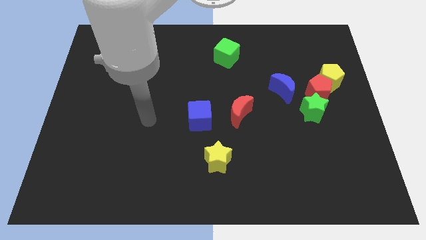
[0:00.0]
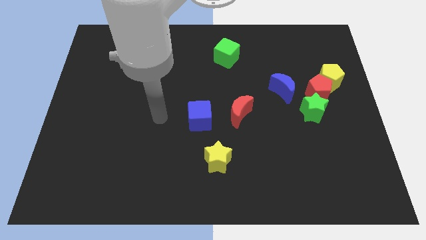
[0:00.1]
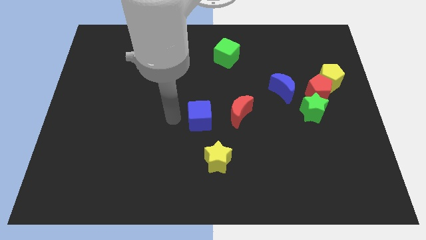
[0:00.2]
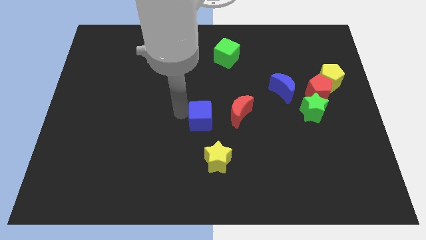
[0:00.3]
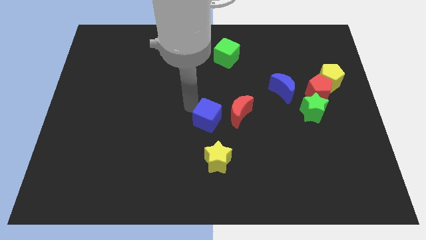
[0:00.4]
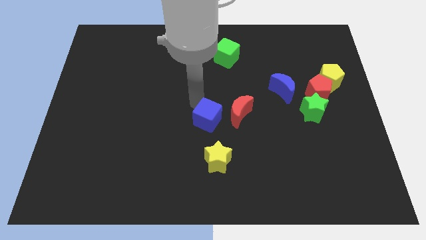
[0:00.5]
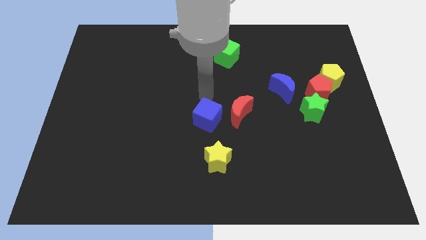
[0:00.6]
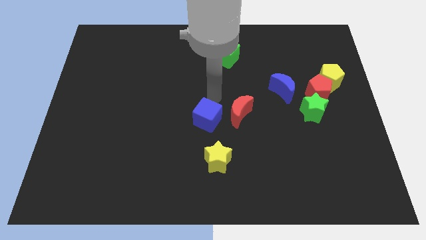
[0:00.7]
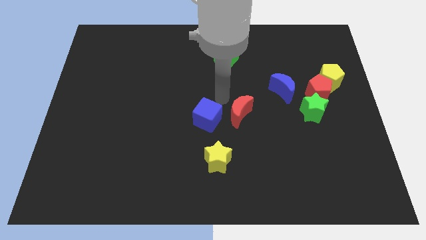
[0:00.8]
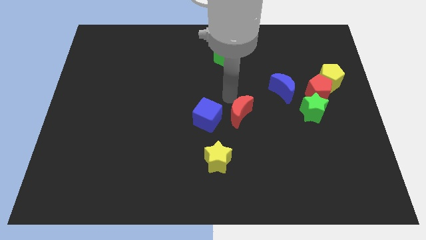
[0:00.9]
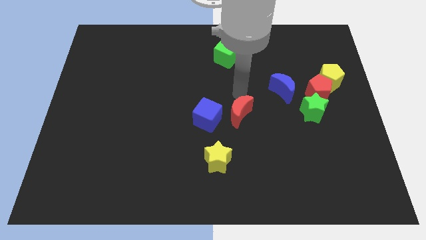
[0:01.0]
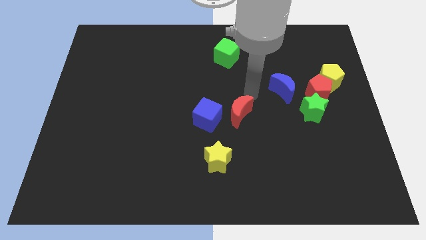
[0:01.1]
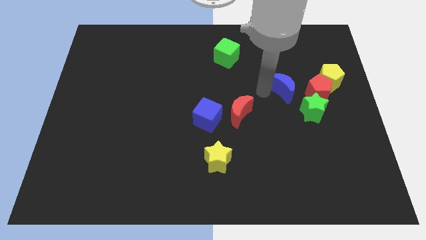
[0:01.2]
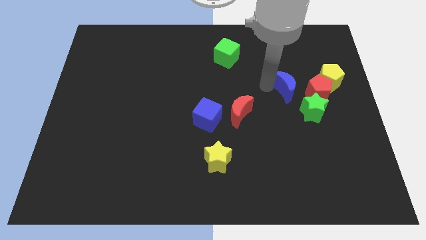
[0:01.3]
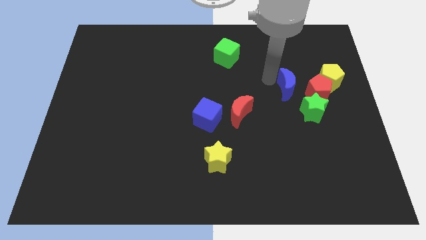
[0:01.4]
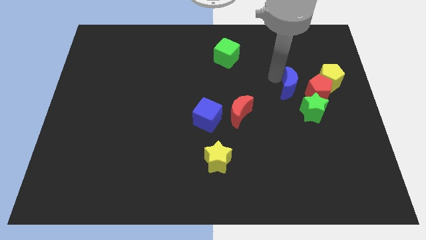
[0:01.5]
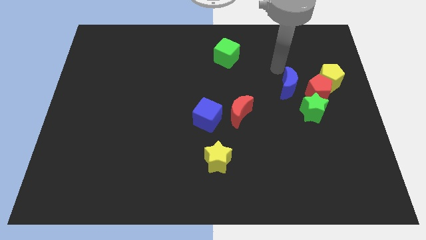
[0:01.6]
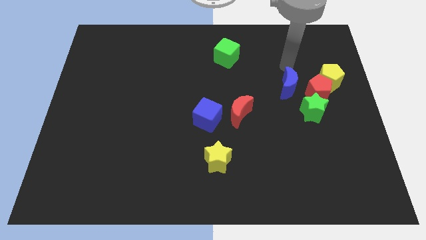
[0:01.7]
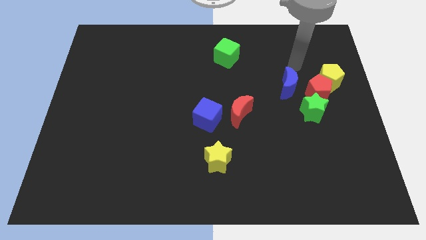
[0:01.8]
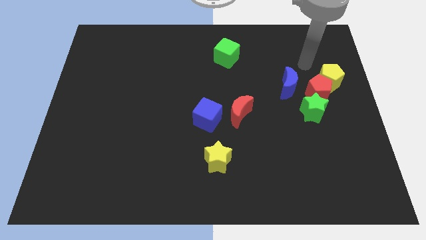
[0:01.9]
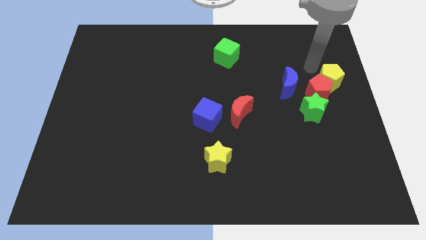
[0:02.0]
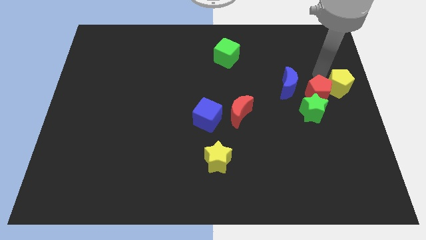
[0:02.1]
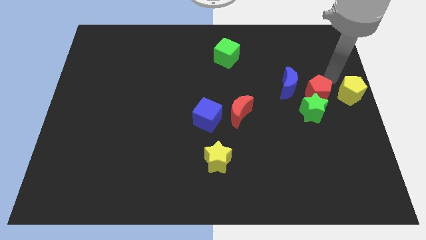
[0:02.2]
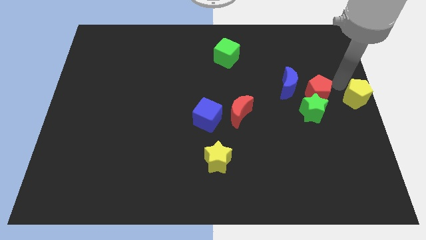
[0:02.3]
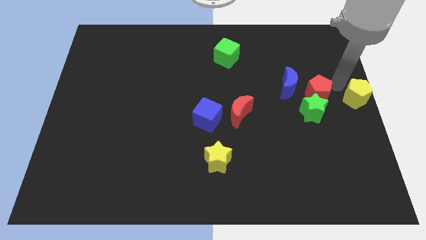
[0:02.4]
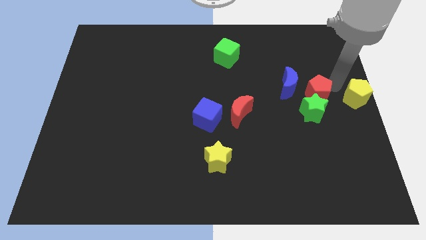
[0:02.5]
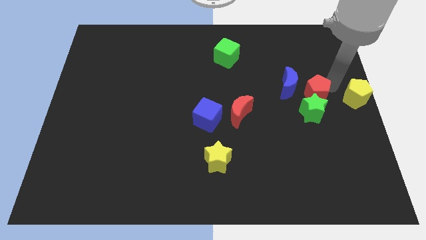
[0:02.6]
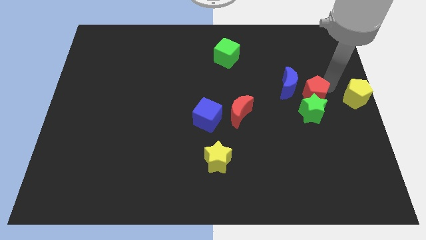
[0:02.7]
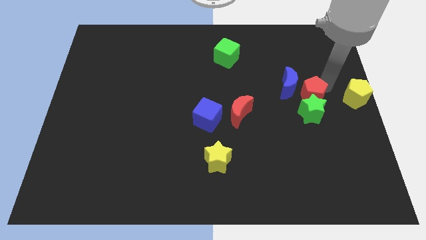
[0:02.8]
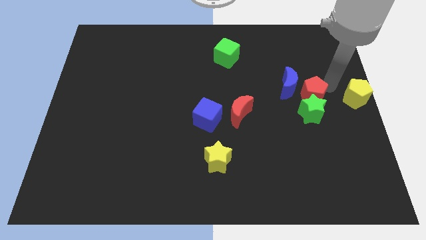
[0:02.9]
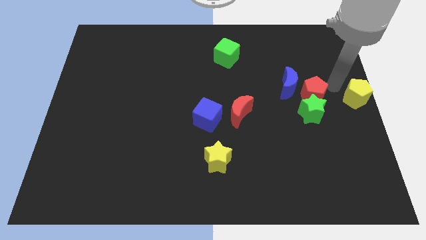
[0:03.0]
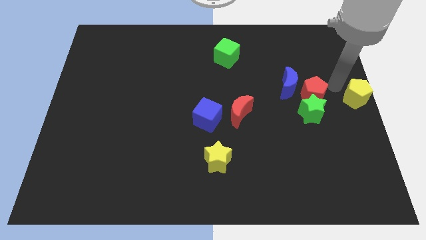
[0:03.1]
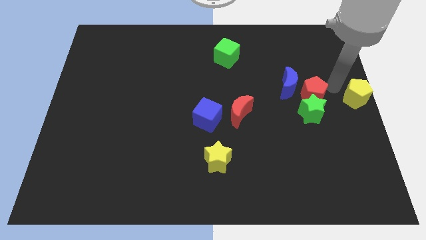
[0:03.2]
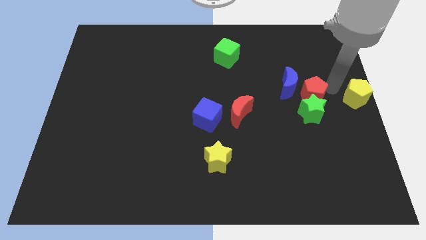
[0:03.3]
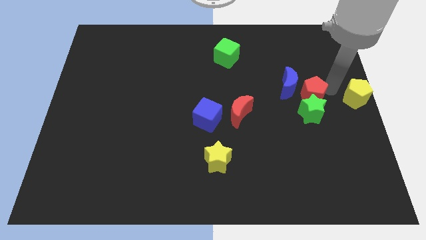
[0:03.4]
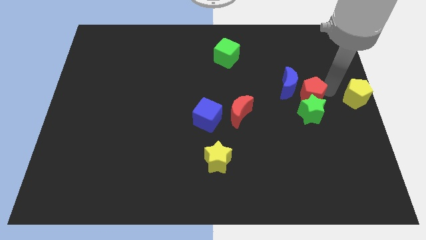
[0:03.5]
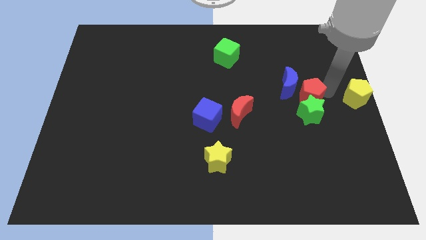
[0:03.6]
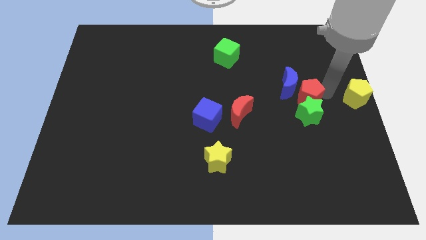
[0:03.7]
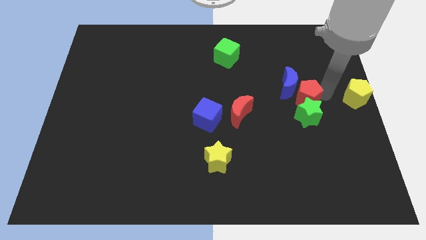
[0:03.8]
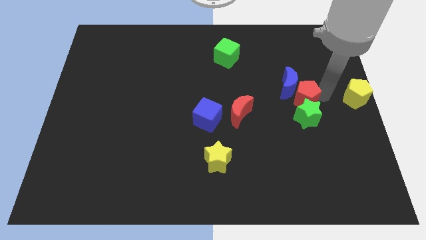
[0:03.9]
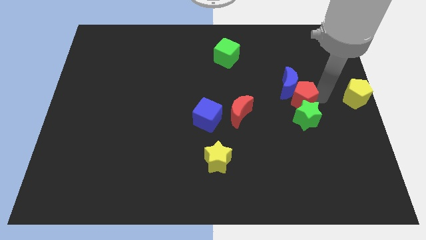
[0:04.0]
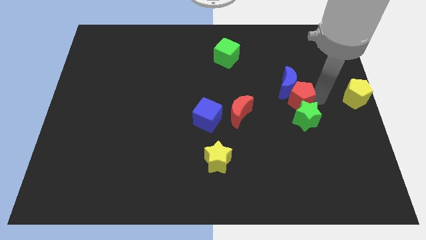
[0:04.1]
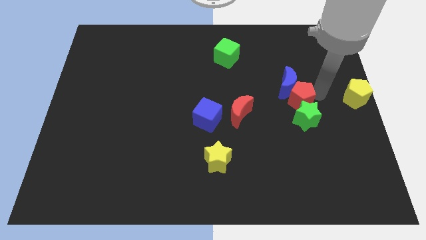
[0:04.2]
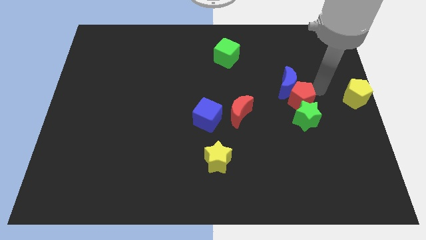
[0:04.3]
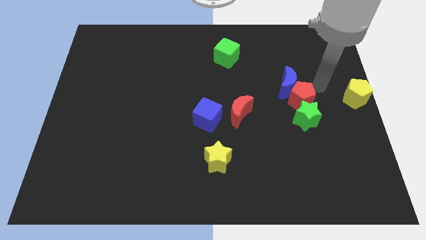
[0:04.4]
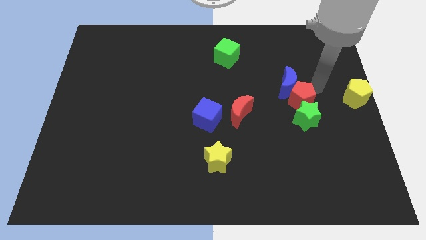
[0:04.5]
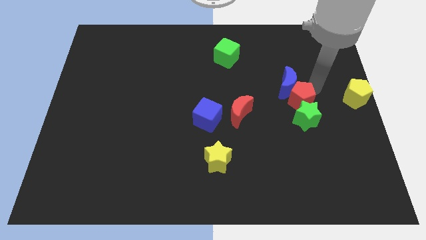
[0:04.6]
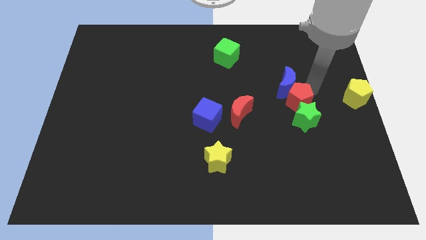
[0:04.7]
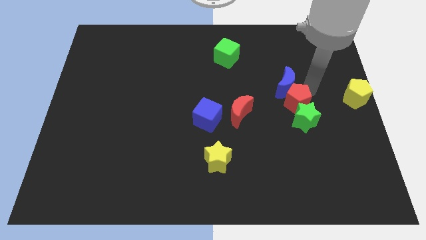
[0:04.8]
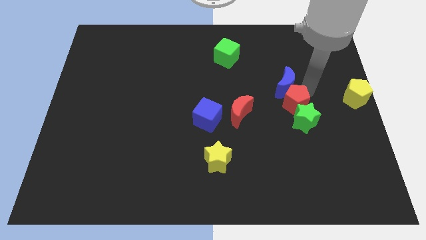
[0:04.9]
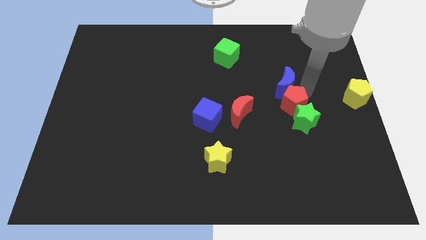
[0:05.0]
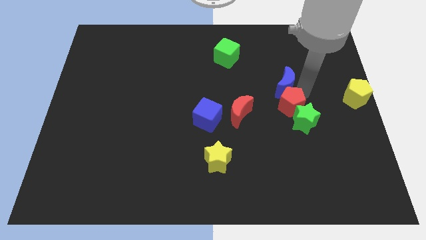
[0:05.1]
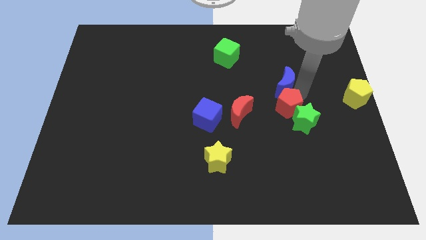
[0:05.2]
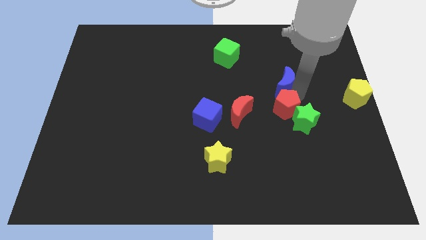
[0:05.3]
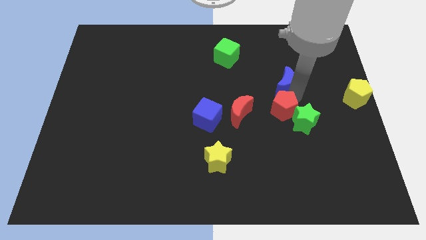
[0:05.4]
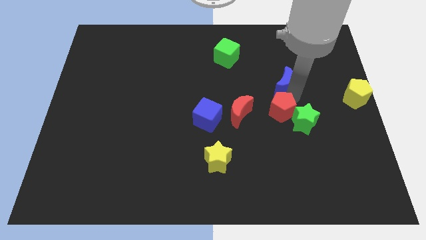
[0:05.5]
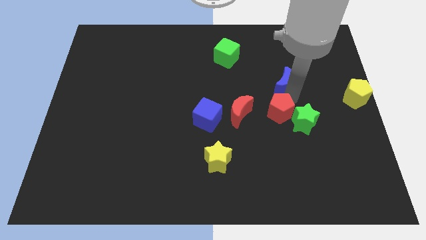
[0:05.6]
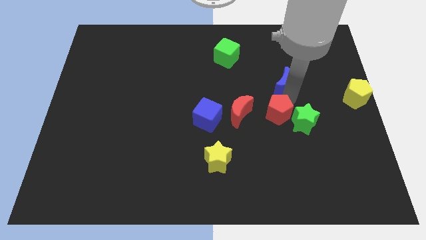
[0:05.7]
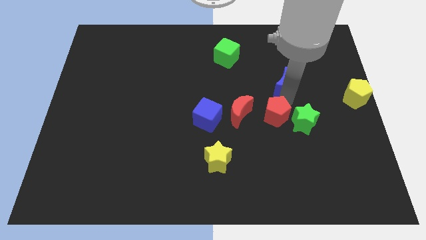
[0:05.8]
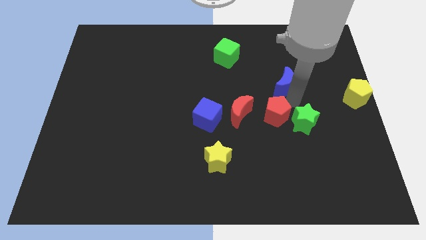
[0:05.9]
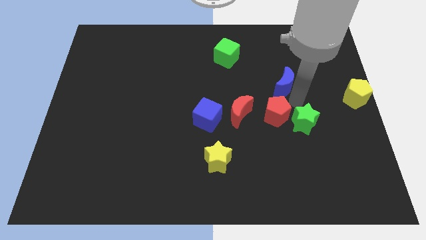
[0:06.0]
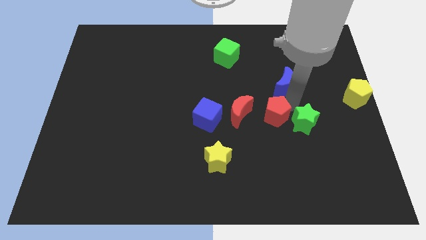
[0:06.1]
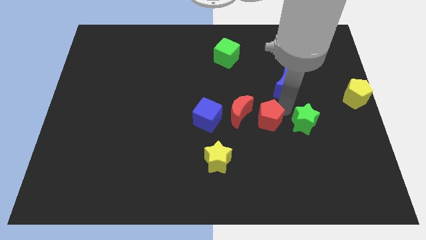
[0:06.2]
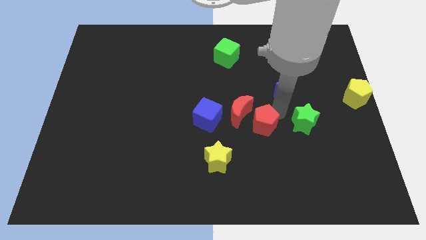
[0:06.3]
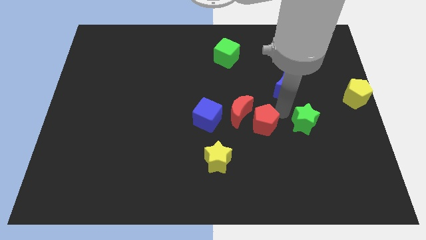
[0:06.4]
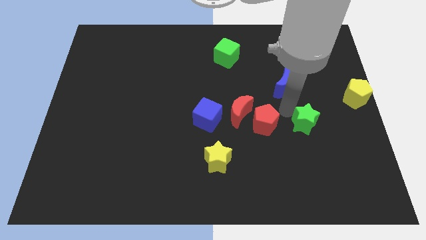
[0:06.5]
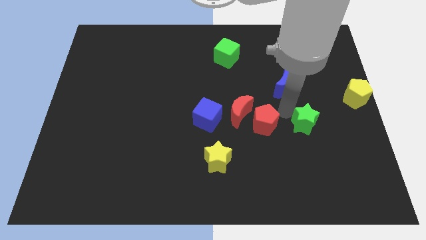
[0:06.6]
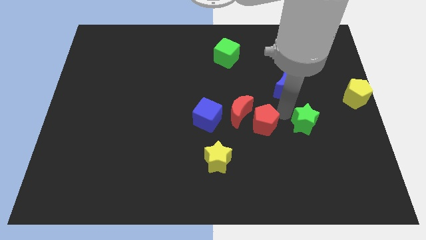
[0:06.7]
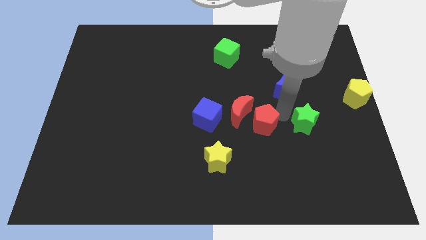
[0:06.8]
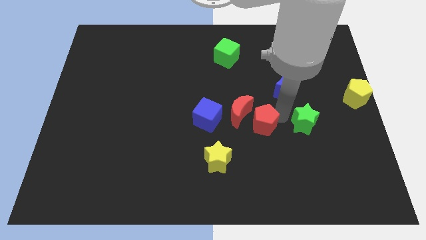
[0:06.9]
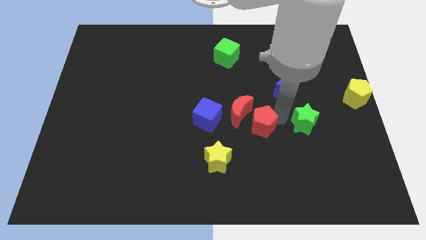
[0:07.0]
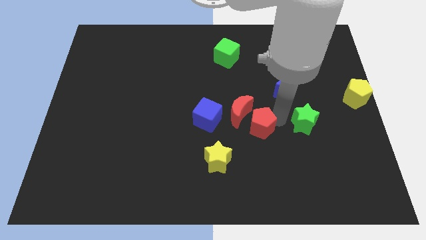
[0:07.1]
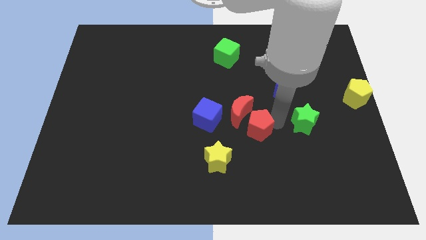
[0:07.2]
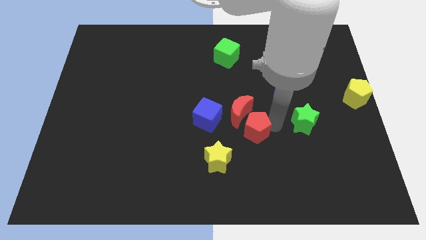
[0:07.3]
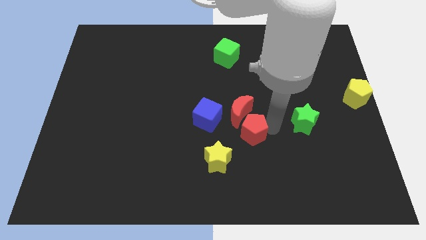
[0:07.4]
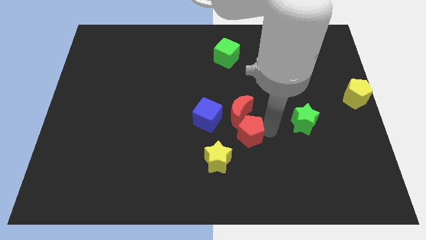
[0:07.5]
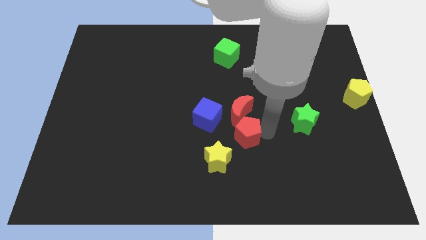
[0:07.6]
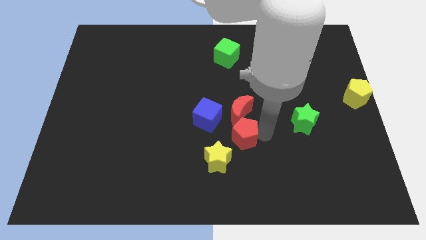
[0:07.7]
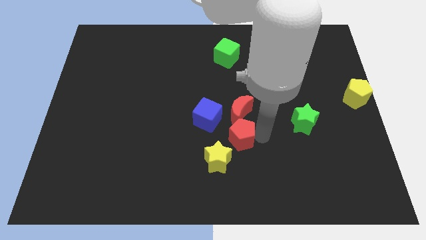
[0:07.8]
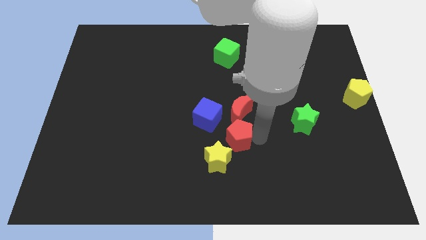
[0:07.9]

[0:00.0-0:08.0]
slide the red pentagon to the bottom left of the red moon
